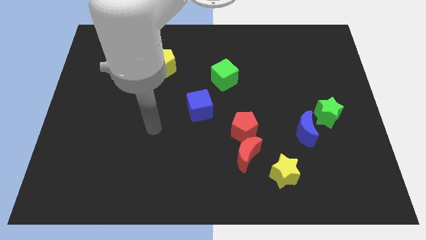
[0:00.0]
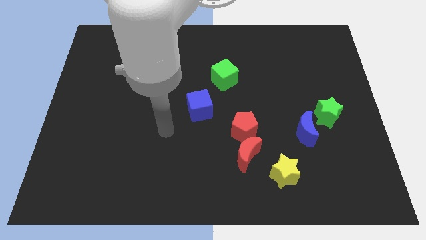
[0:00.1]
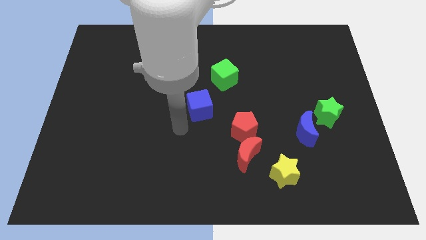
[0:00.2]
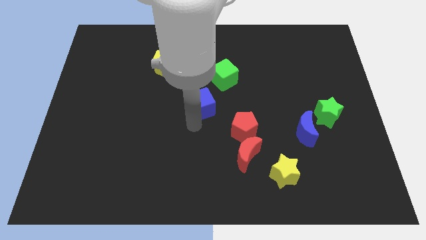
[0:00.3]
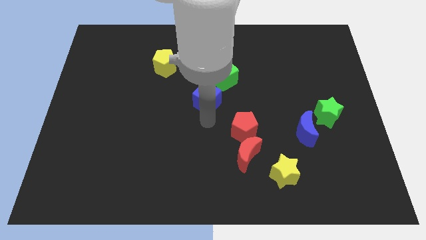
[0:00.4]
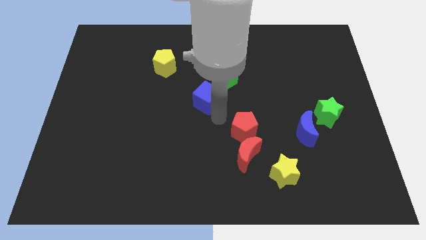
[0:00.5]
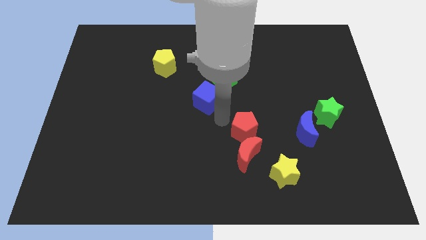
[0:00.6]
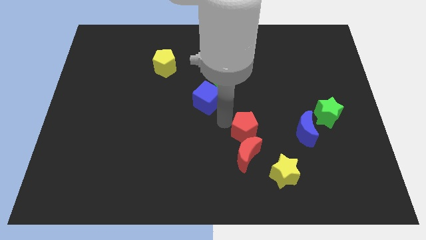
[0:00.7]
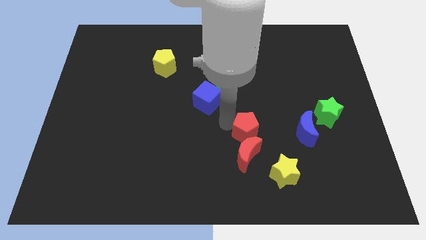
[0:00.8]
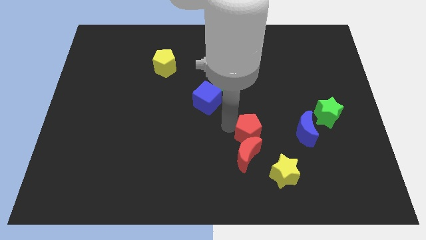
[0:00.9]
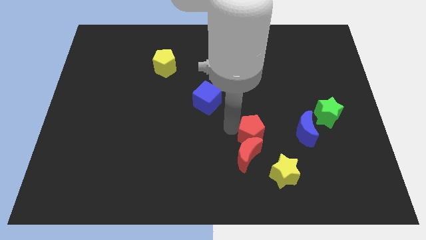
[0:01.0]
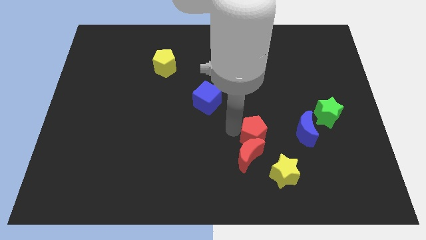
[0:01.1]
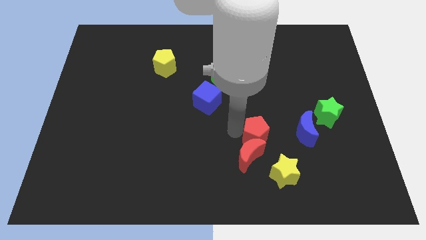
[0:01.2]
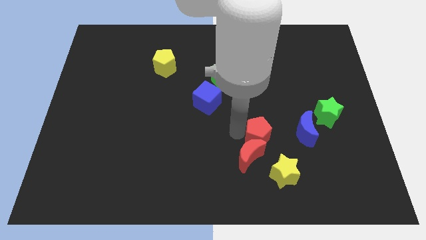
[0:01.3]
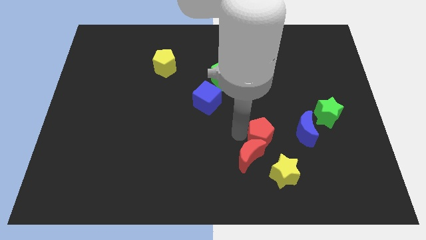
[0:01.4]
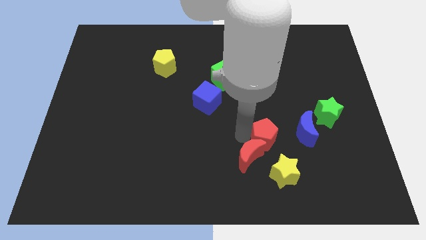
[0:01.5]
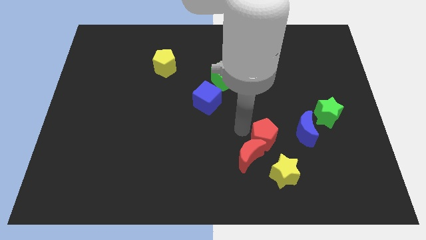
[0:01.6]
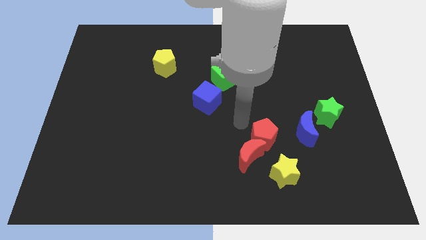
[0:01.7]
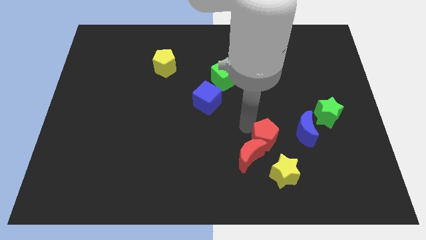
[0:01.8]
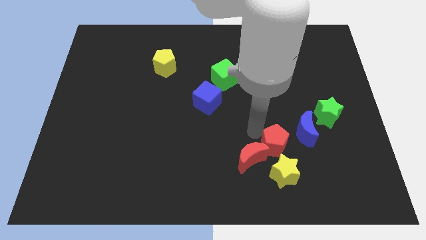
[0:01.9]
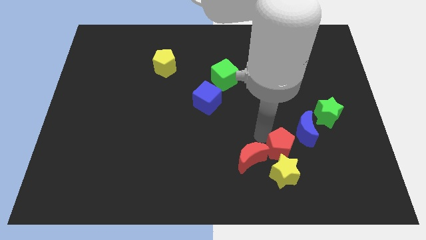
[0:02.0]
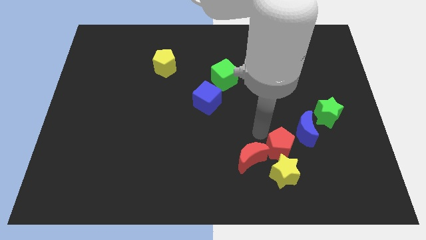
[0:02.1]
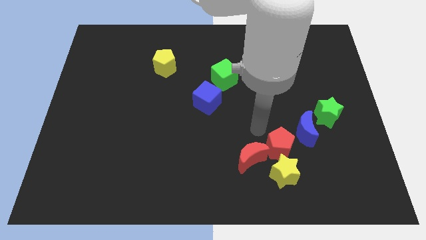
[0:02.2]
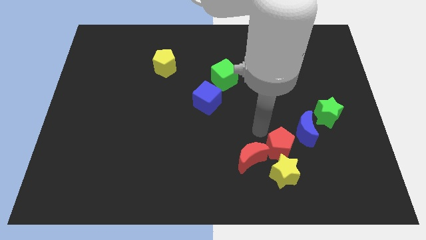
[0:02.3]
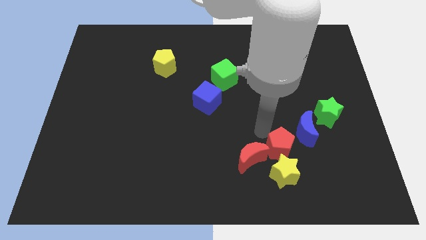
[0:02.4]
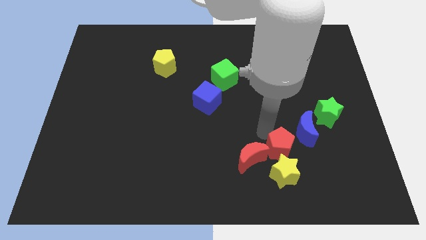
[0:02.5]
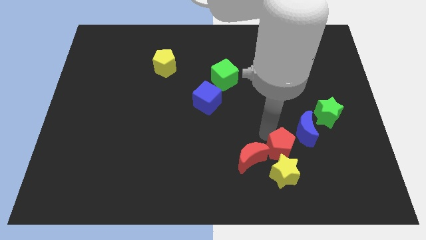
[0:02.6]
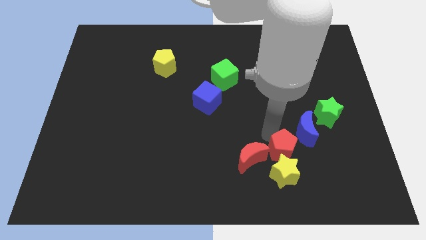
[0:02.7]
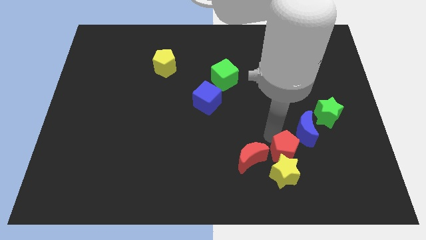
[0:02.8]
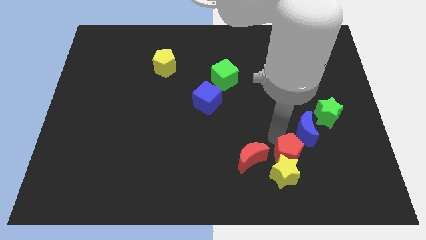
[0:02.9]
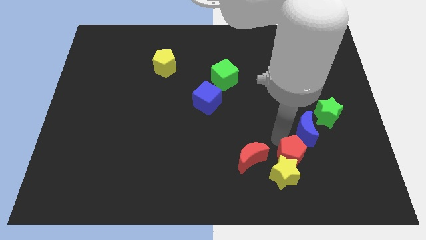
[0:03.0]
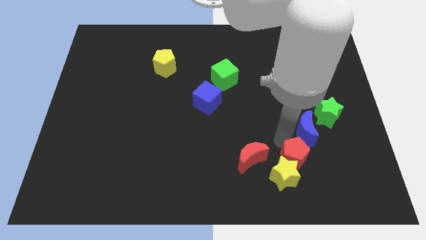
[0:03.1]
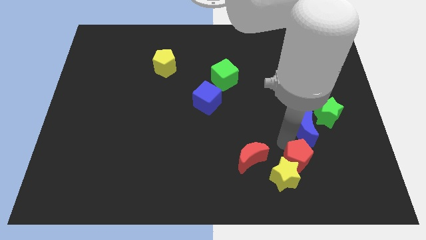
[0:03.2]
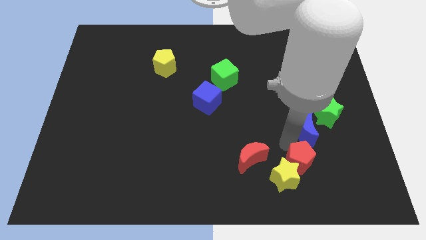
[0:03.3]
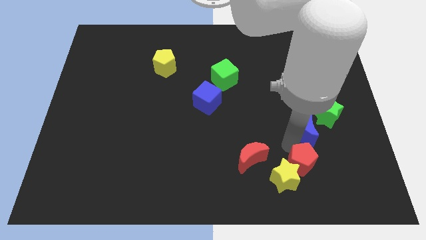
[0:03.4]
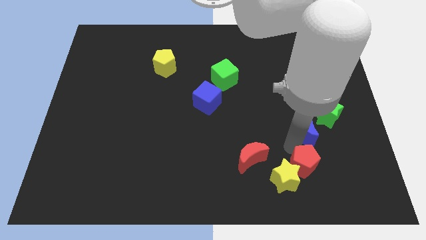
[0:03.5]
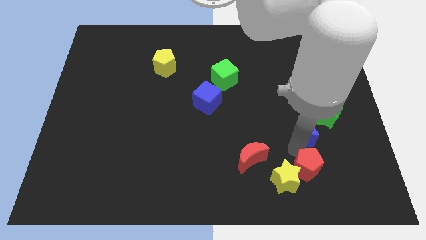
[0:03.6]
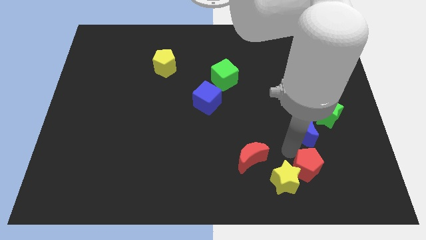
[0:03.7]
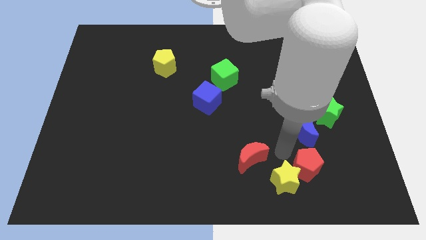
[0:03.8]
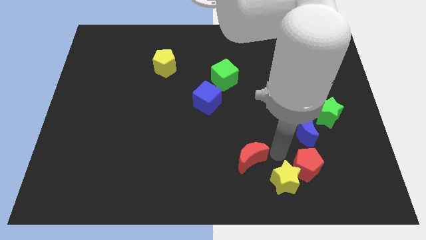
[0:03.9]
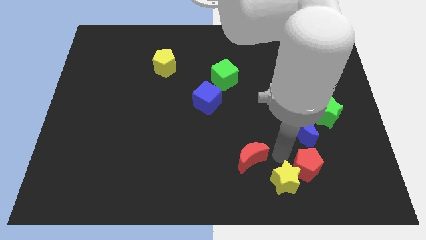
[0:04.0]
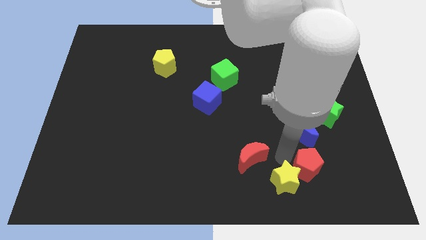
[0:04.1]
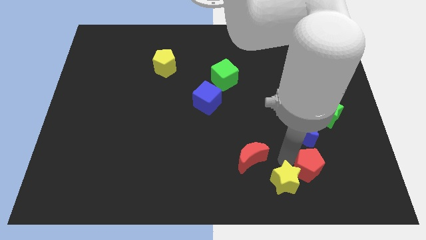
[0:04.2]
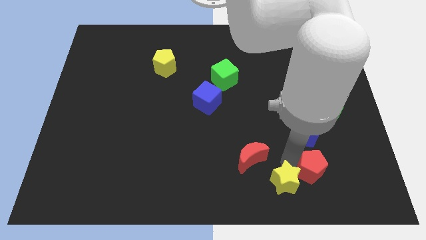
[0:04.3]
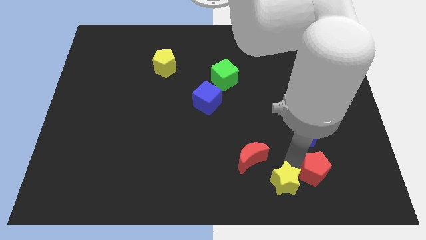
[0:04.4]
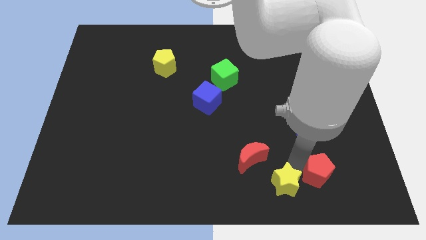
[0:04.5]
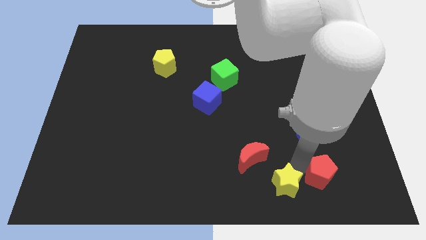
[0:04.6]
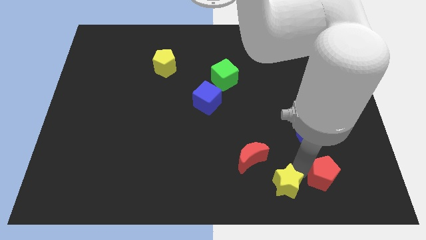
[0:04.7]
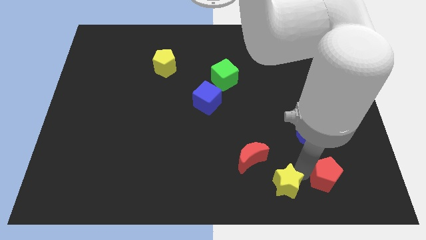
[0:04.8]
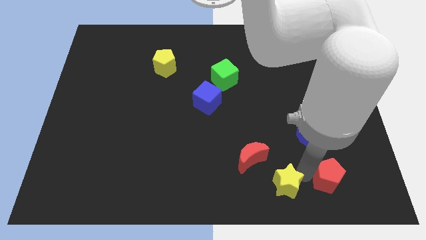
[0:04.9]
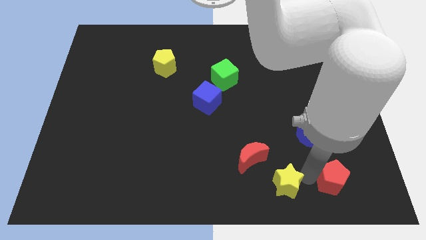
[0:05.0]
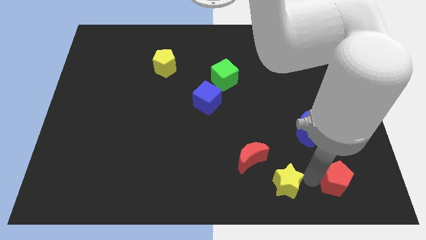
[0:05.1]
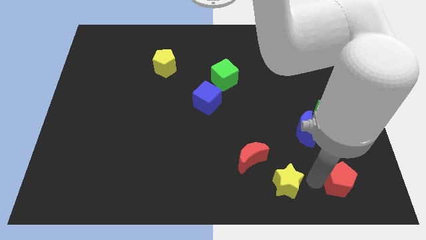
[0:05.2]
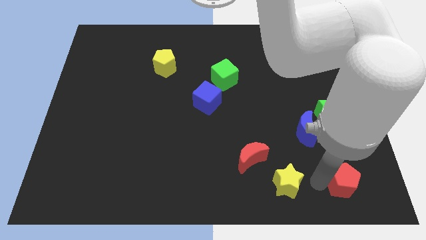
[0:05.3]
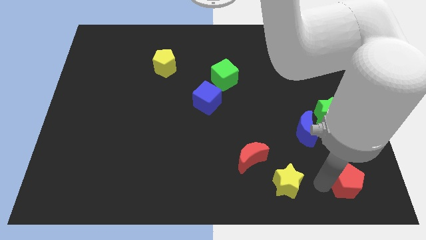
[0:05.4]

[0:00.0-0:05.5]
move the red pentagon to the lower right corner

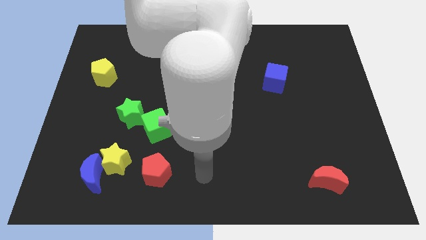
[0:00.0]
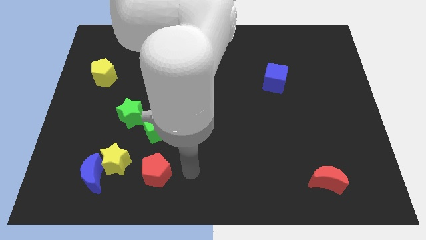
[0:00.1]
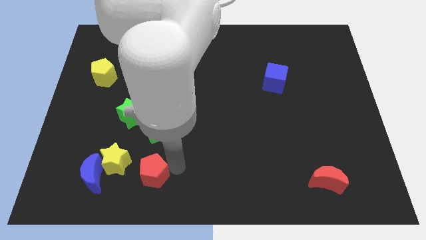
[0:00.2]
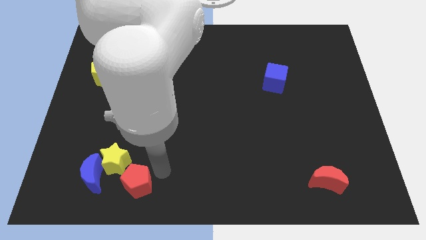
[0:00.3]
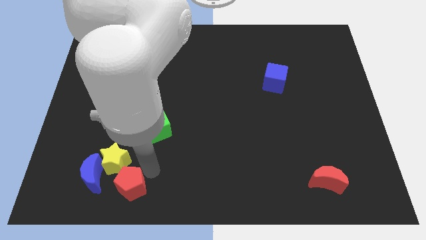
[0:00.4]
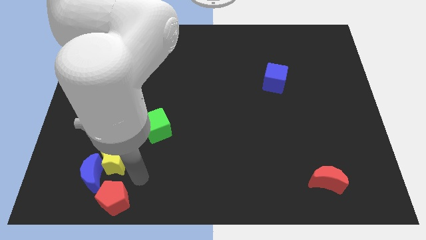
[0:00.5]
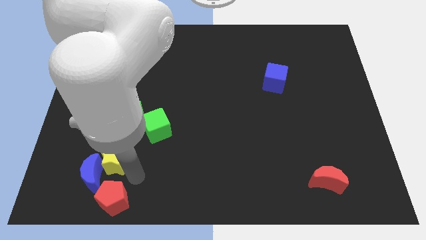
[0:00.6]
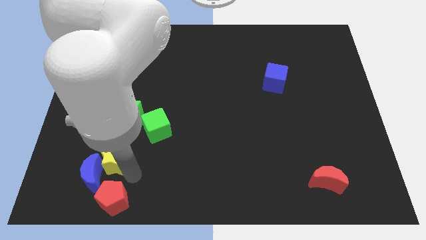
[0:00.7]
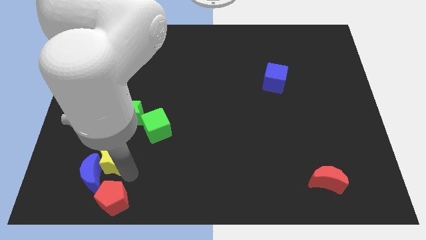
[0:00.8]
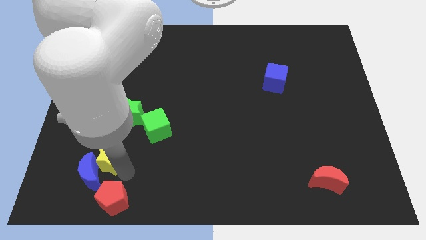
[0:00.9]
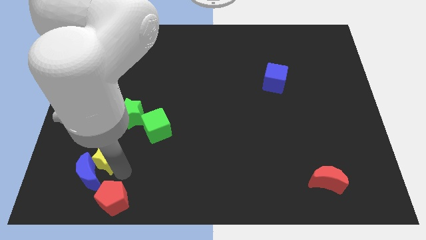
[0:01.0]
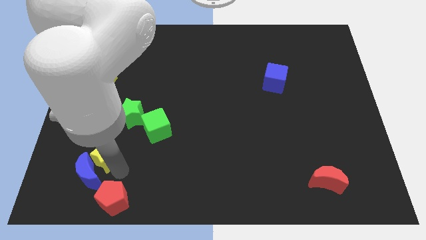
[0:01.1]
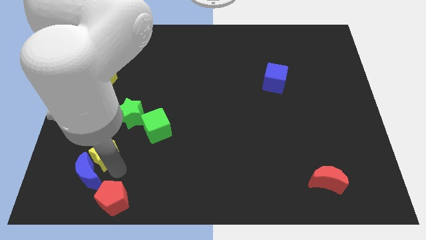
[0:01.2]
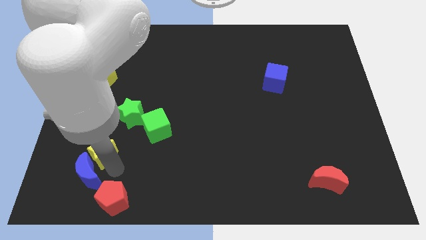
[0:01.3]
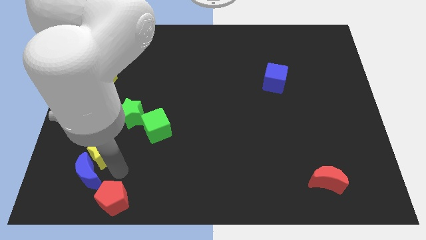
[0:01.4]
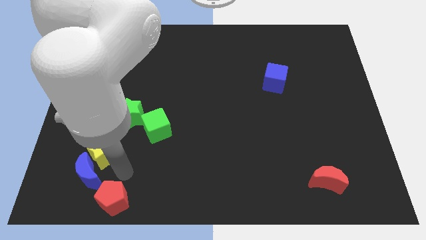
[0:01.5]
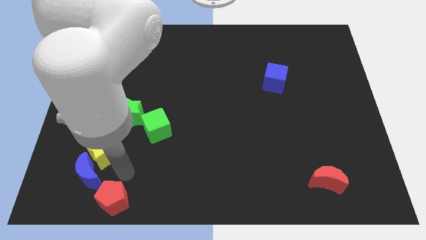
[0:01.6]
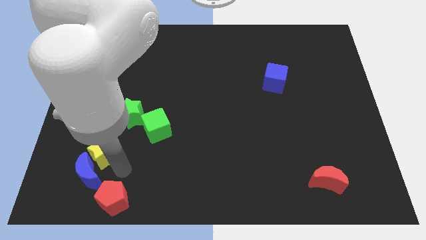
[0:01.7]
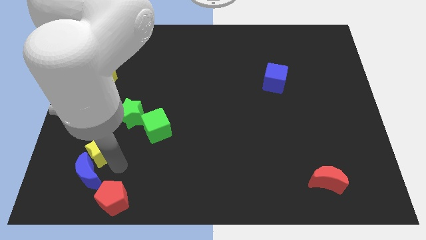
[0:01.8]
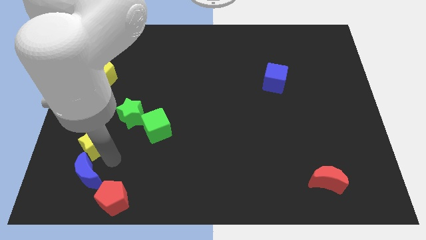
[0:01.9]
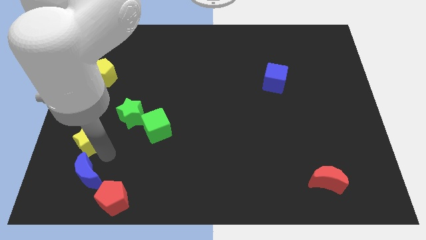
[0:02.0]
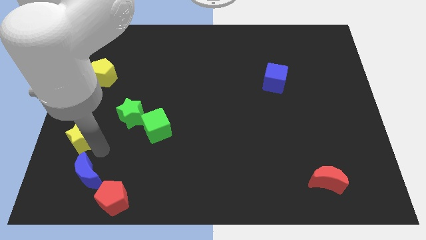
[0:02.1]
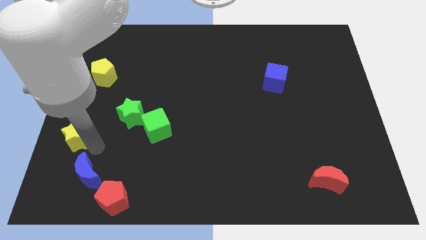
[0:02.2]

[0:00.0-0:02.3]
slide the yellow star to the left side
